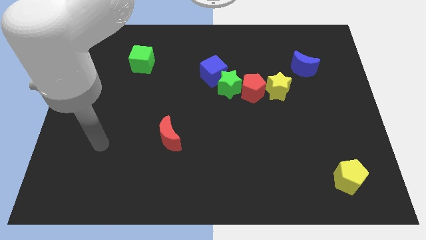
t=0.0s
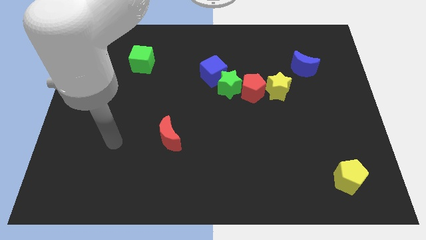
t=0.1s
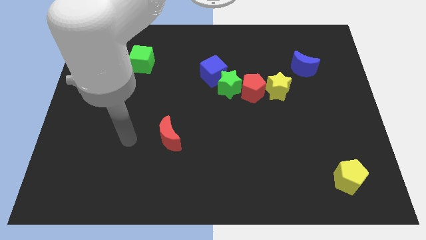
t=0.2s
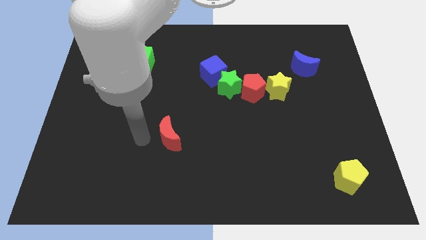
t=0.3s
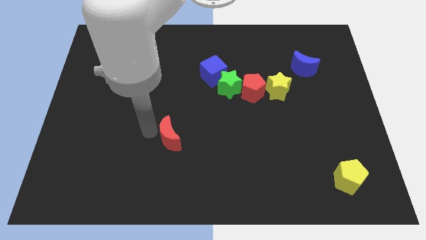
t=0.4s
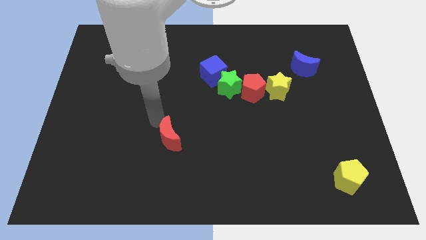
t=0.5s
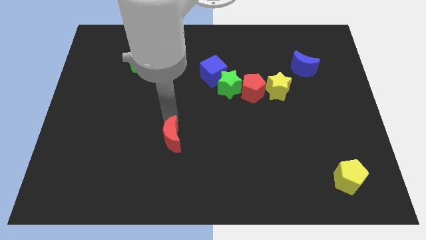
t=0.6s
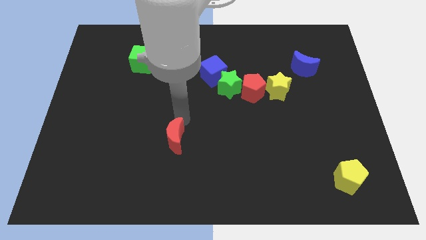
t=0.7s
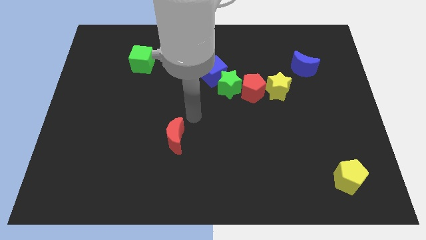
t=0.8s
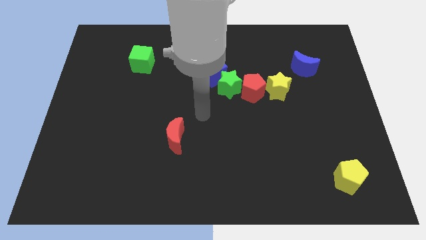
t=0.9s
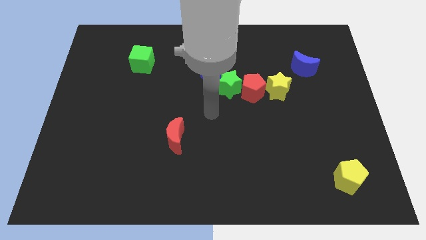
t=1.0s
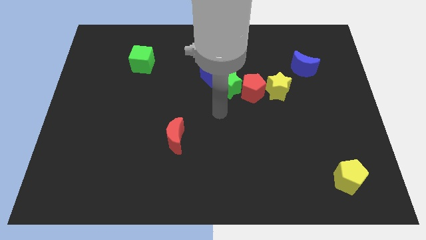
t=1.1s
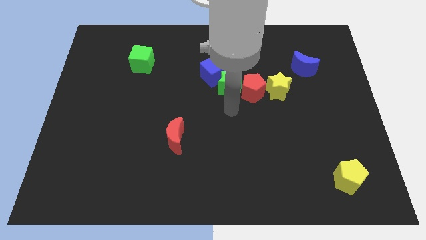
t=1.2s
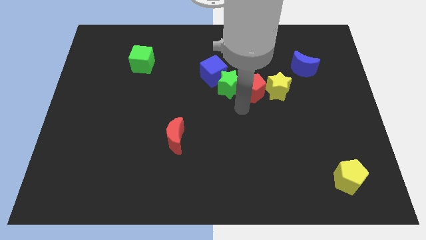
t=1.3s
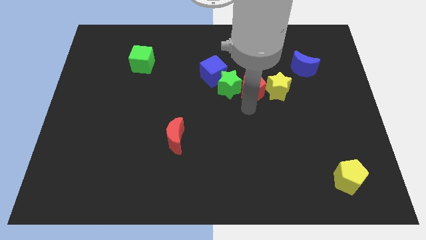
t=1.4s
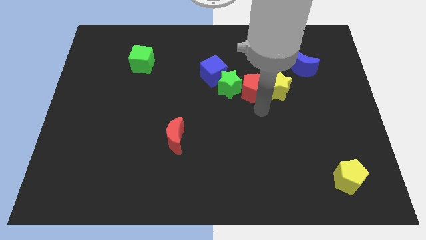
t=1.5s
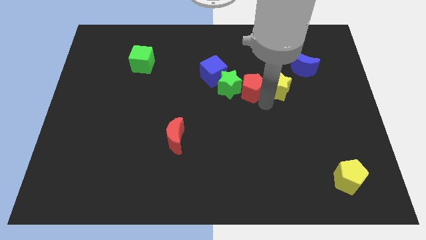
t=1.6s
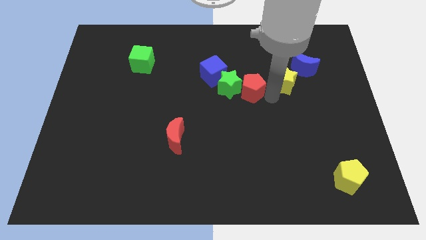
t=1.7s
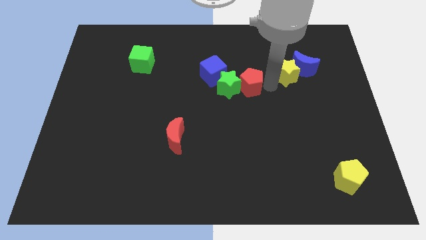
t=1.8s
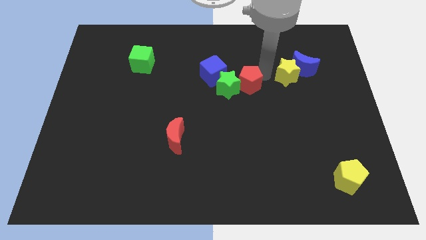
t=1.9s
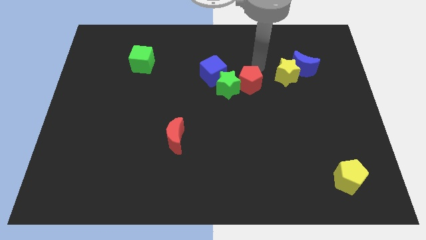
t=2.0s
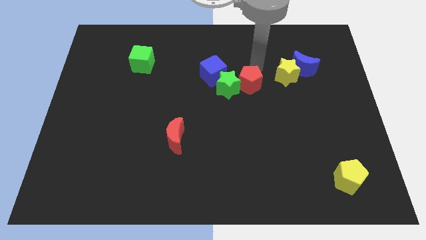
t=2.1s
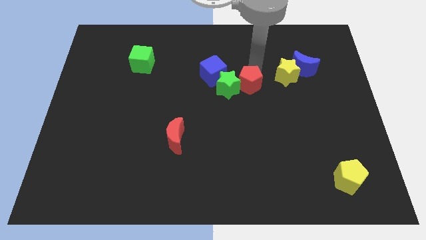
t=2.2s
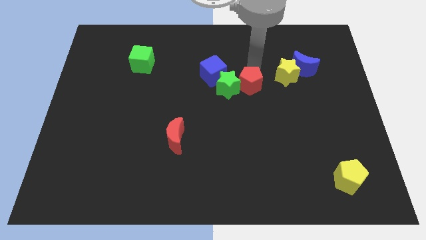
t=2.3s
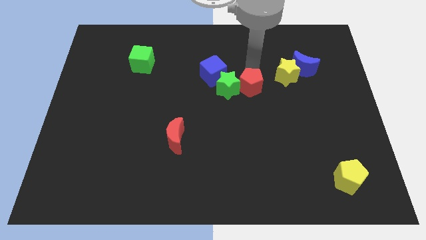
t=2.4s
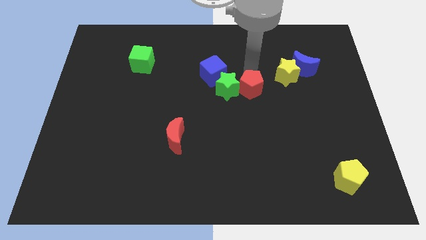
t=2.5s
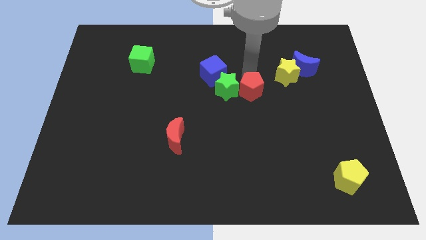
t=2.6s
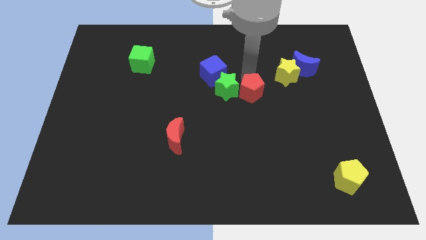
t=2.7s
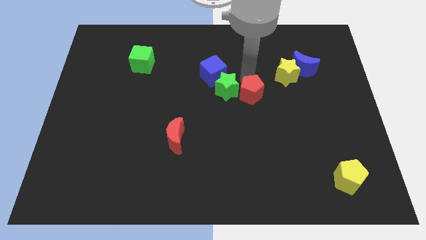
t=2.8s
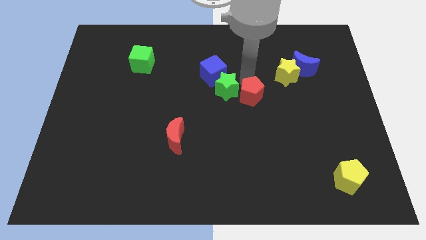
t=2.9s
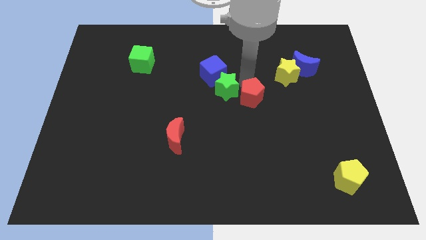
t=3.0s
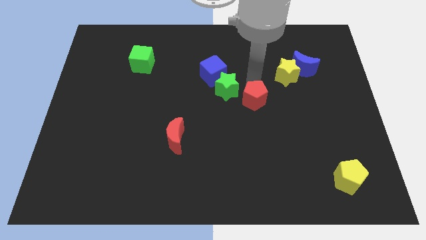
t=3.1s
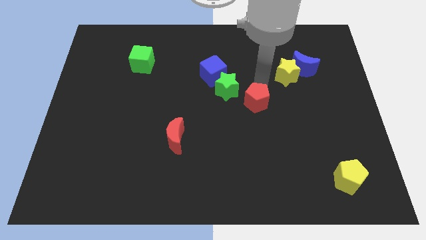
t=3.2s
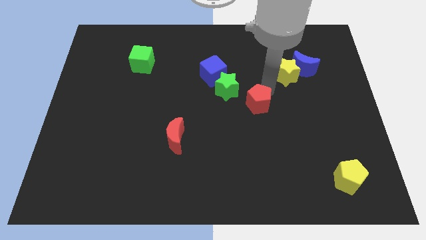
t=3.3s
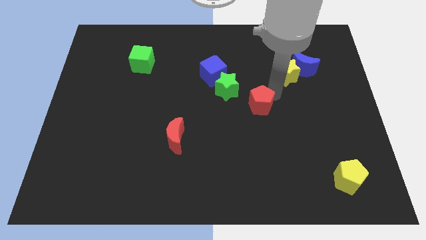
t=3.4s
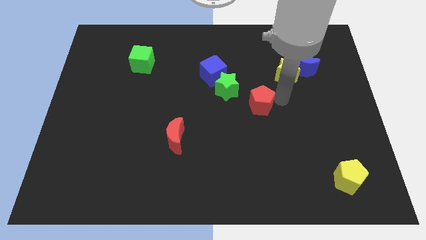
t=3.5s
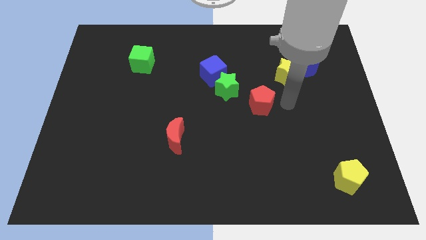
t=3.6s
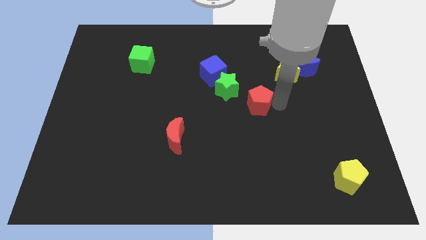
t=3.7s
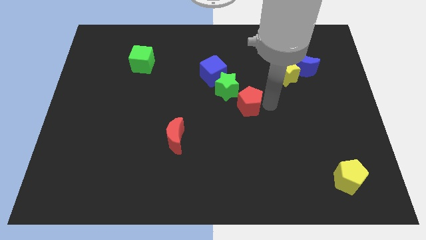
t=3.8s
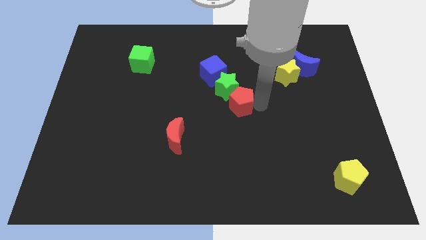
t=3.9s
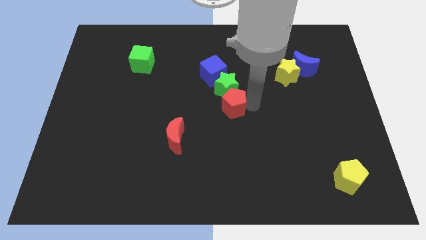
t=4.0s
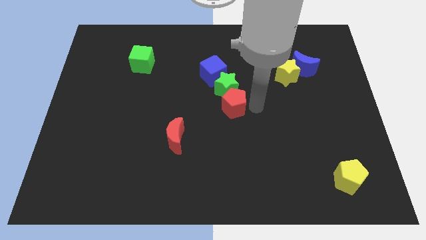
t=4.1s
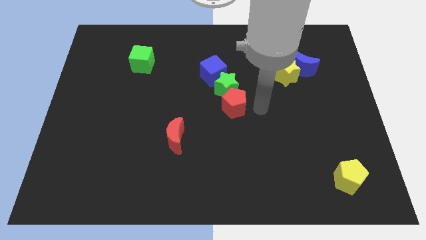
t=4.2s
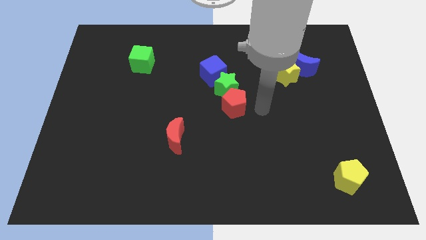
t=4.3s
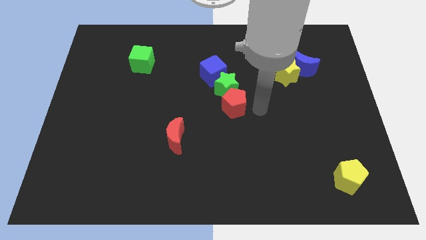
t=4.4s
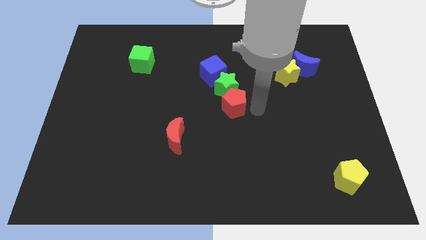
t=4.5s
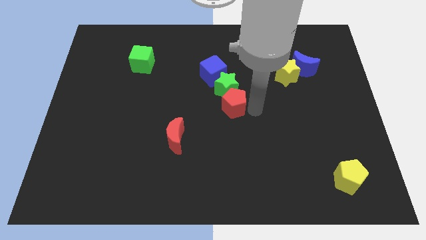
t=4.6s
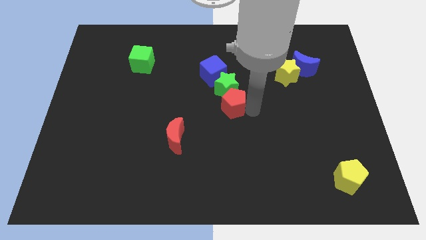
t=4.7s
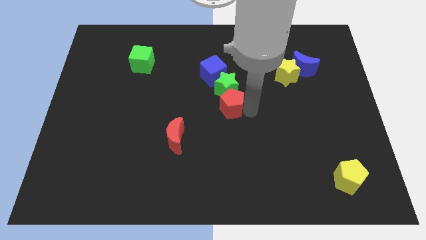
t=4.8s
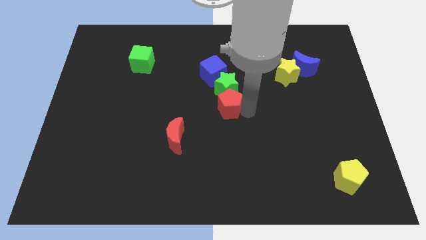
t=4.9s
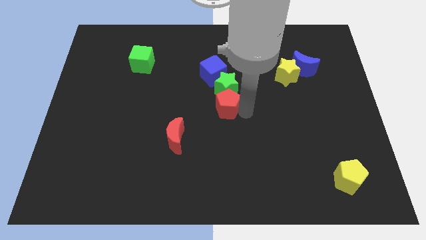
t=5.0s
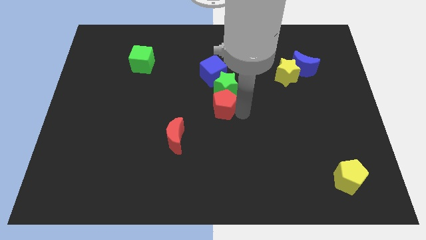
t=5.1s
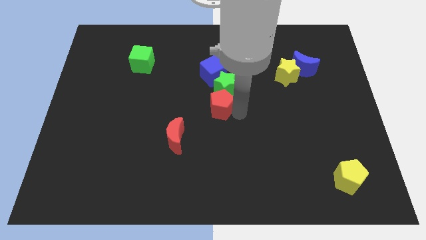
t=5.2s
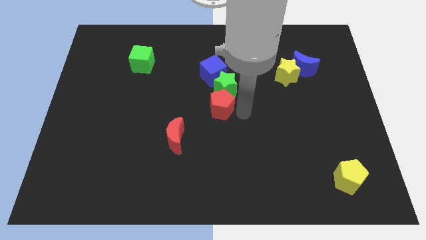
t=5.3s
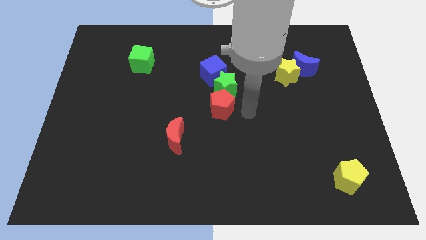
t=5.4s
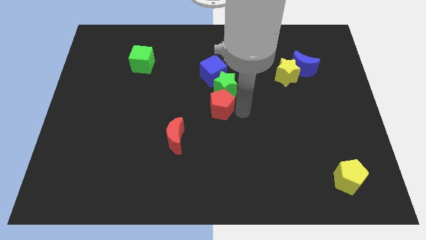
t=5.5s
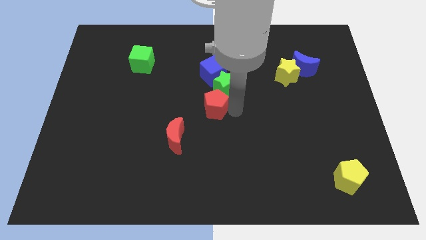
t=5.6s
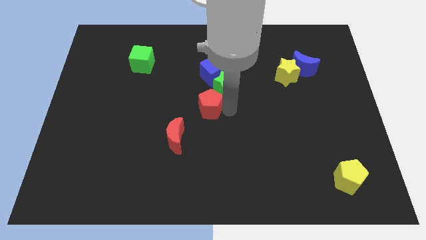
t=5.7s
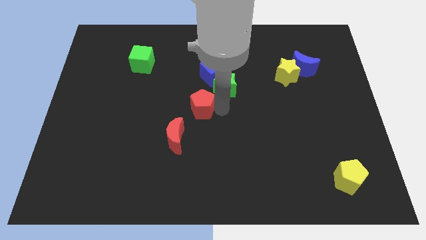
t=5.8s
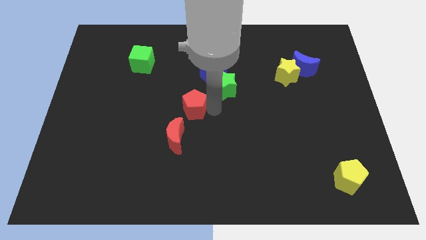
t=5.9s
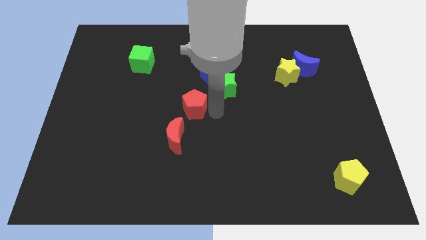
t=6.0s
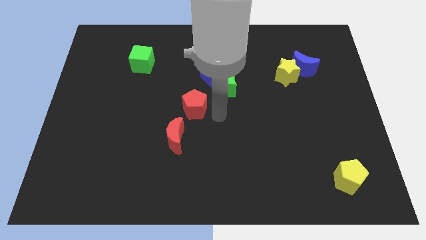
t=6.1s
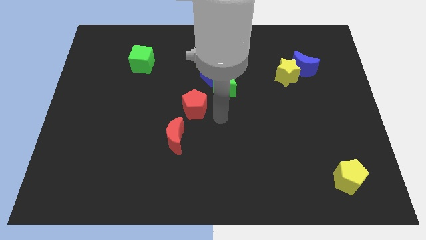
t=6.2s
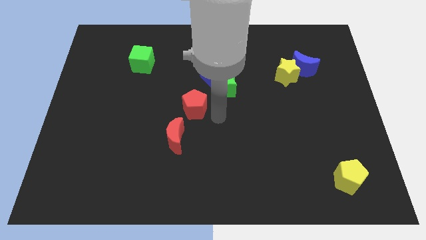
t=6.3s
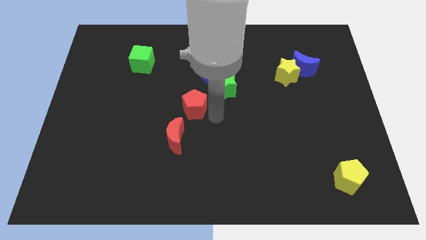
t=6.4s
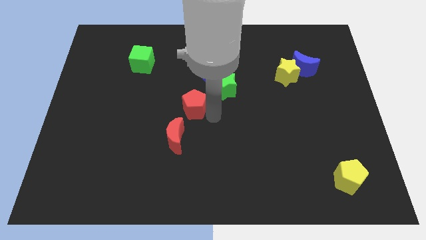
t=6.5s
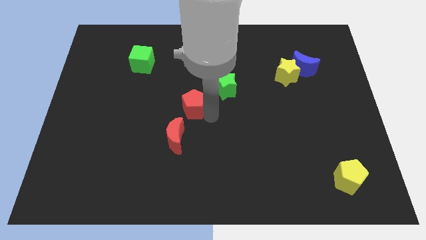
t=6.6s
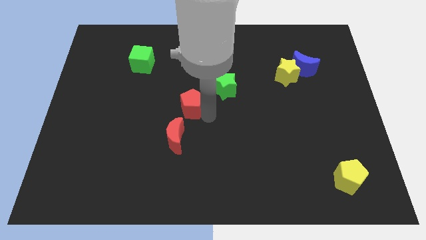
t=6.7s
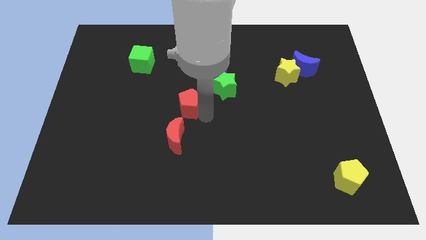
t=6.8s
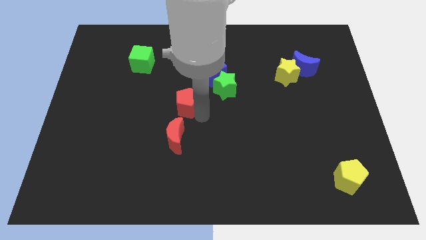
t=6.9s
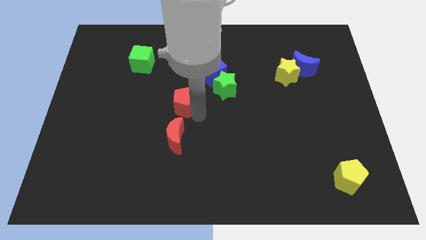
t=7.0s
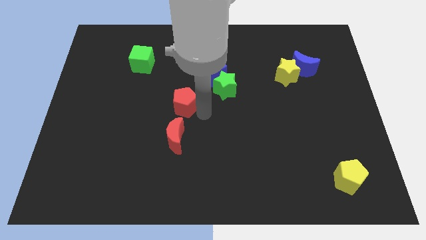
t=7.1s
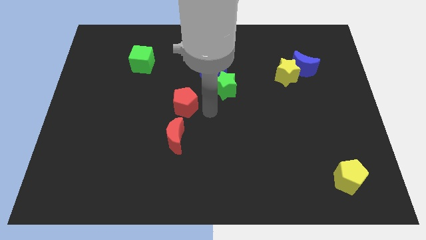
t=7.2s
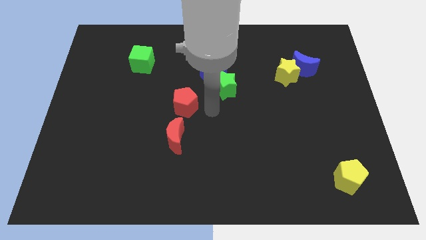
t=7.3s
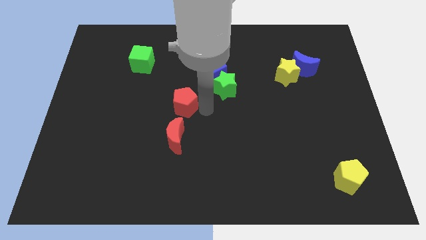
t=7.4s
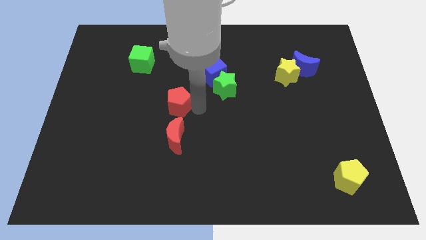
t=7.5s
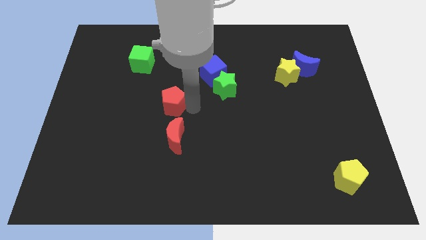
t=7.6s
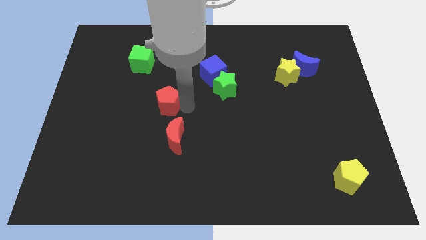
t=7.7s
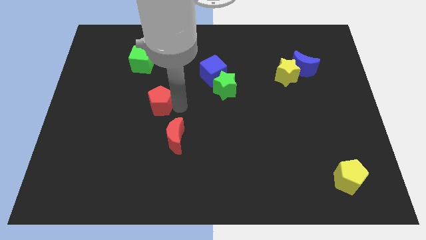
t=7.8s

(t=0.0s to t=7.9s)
move the red pentagon left
